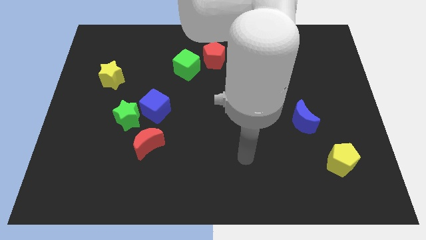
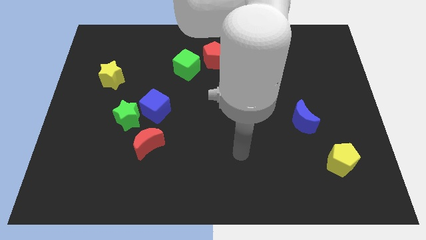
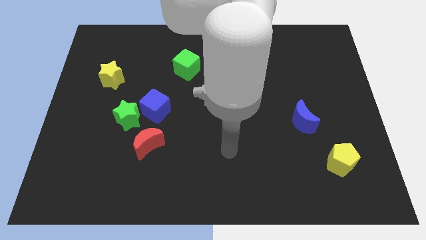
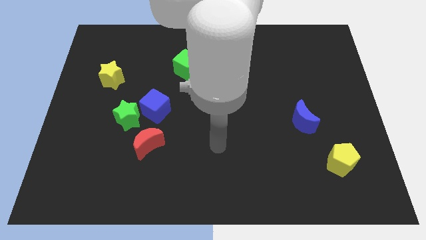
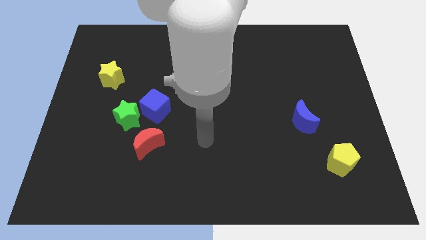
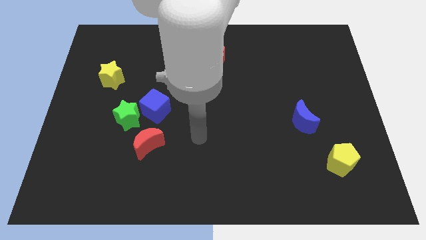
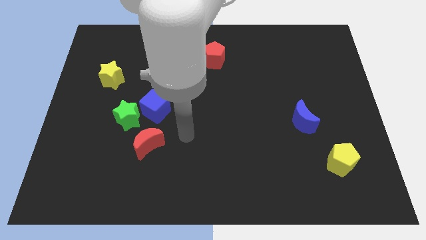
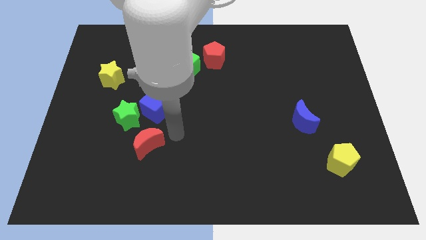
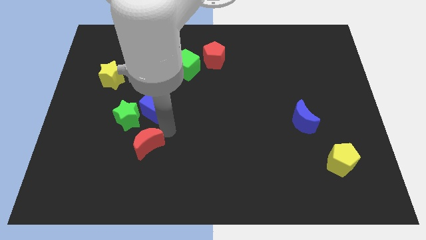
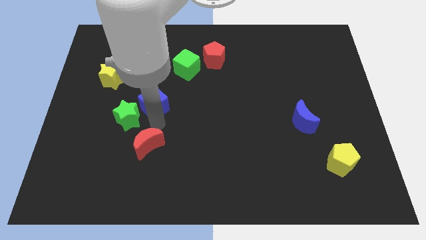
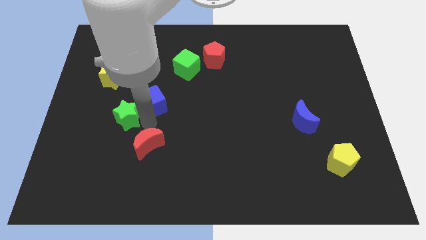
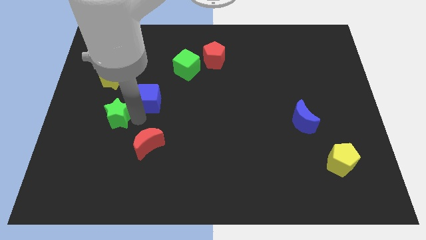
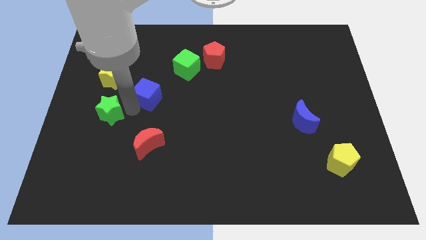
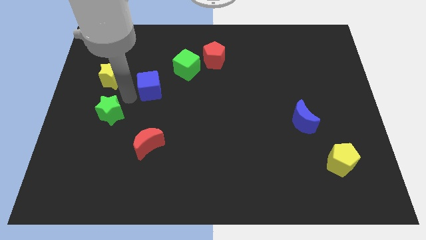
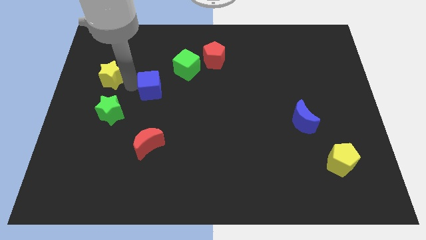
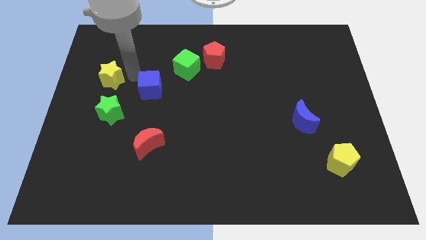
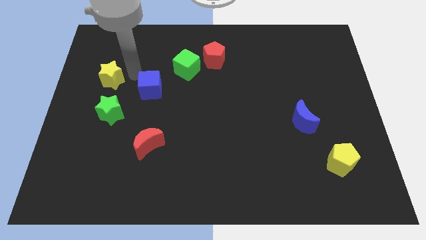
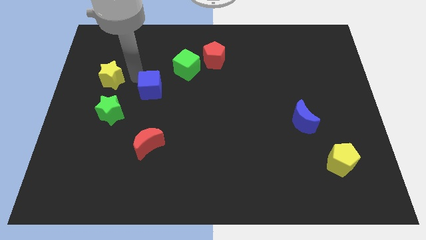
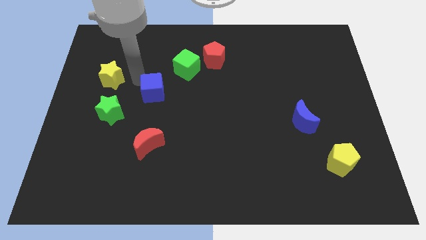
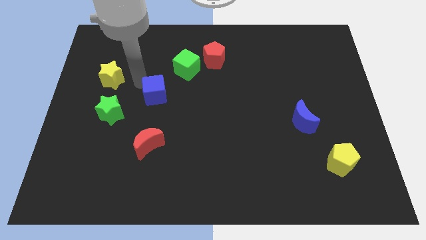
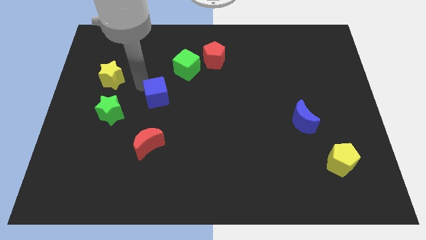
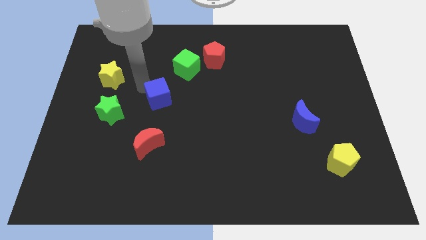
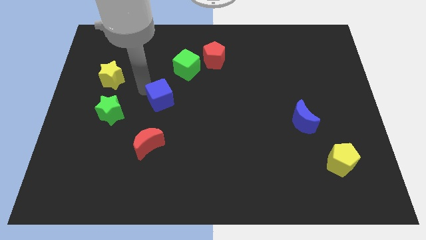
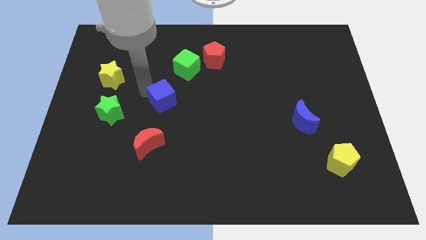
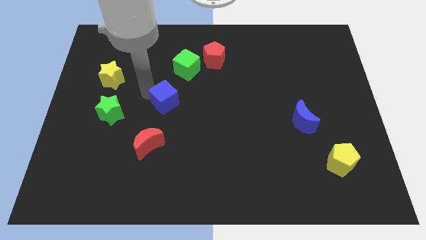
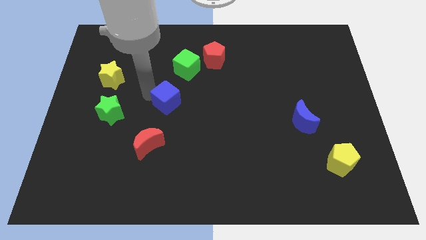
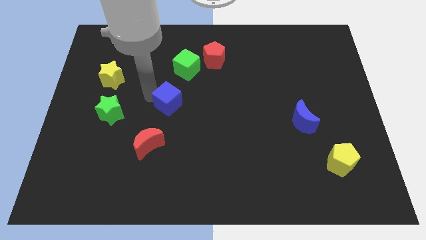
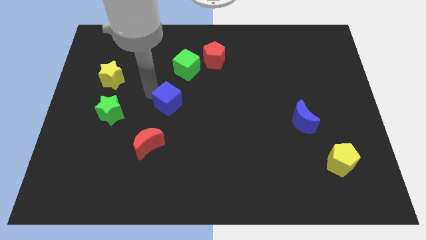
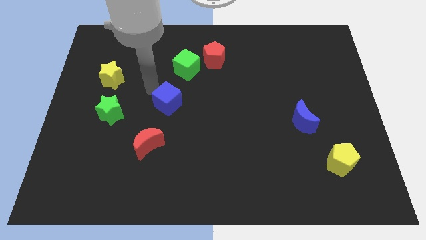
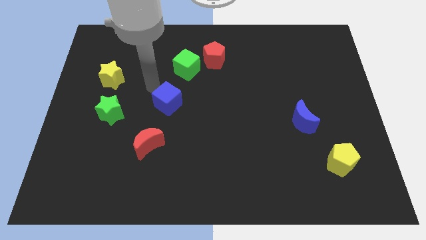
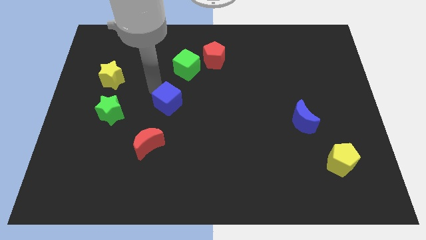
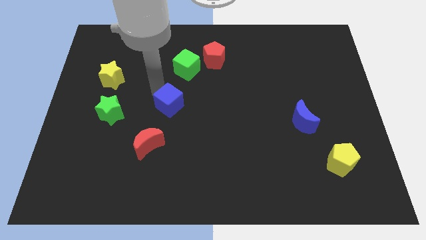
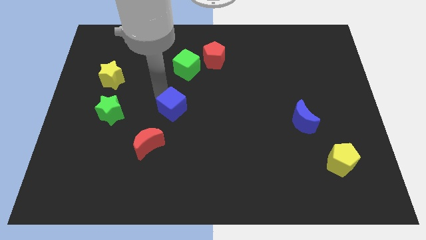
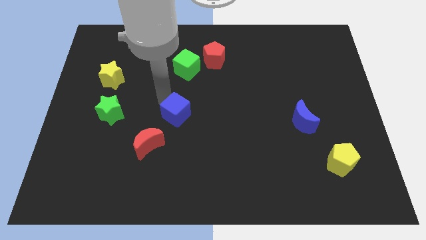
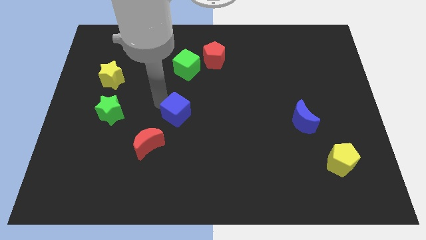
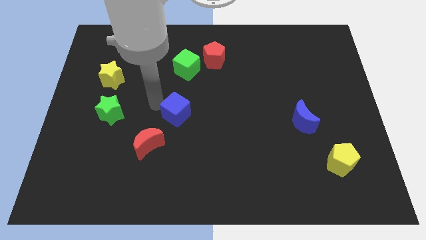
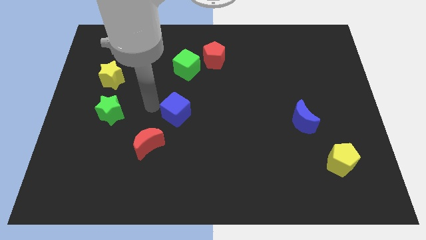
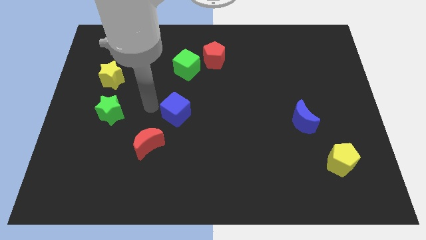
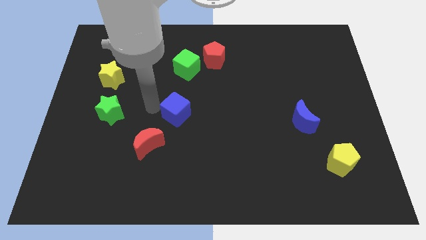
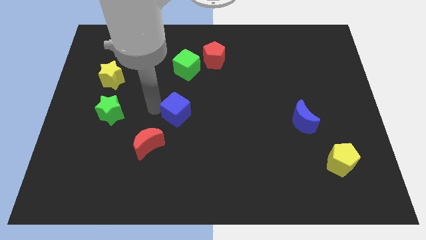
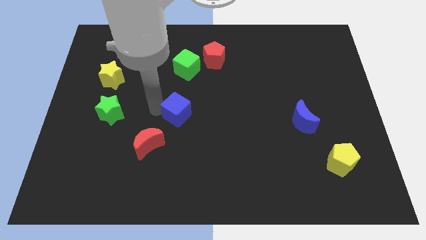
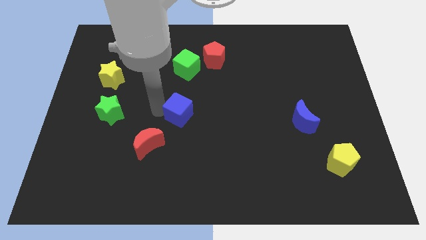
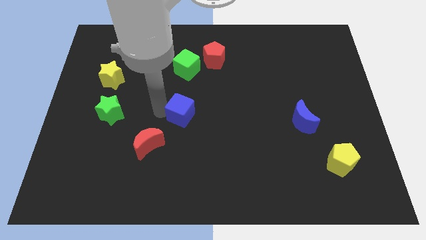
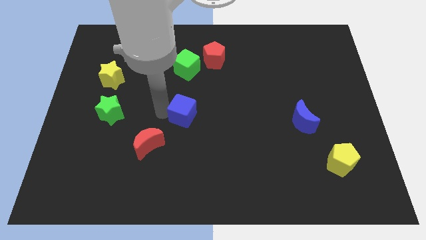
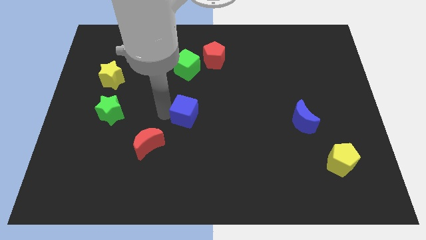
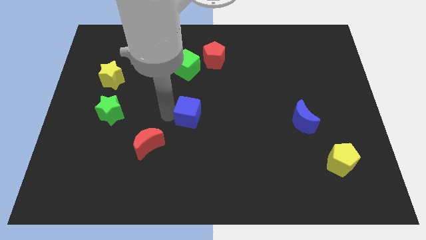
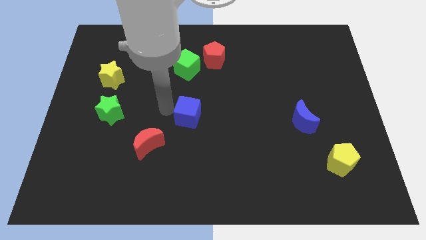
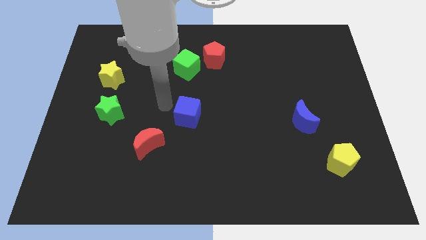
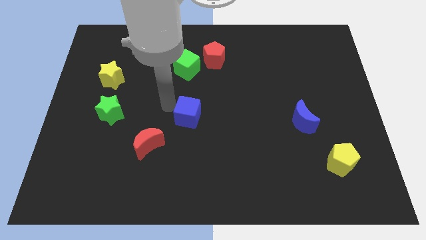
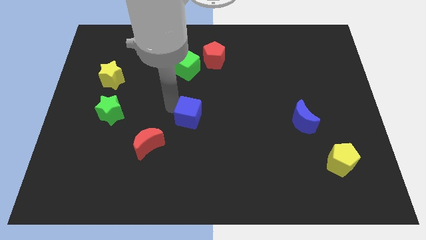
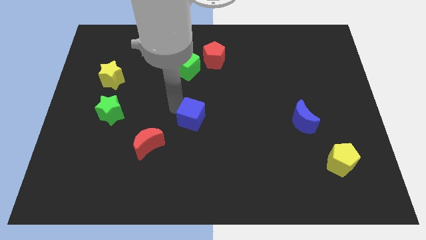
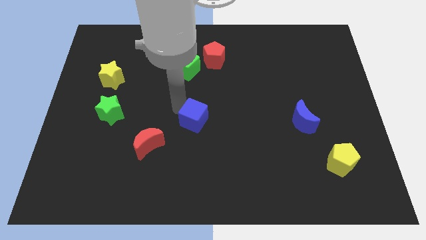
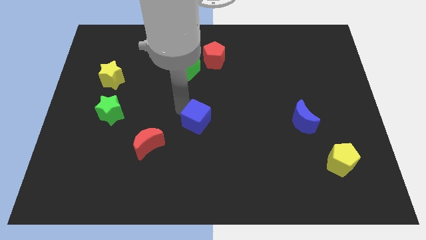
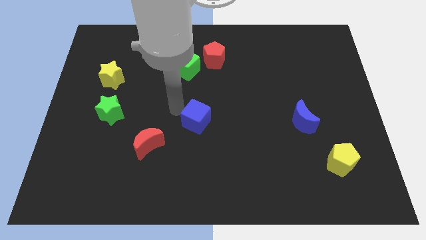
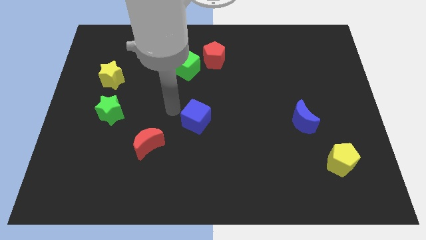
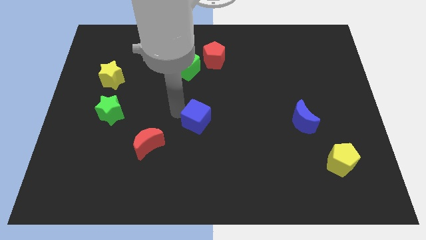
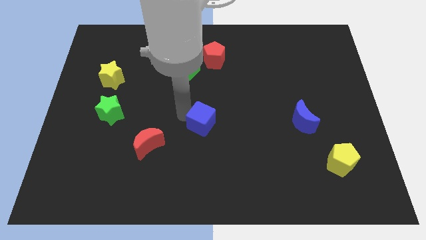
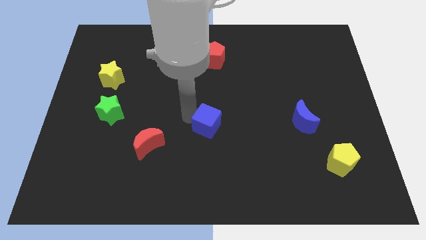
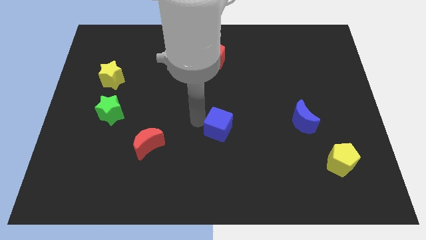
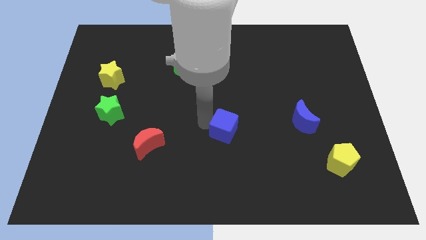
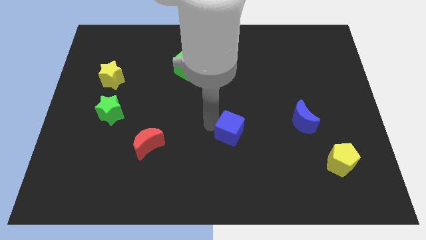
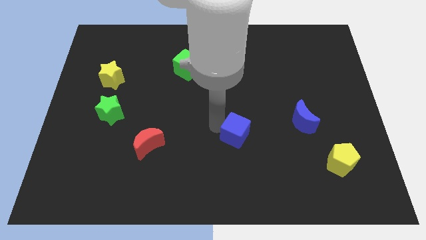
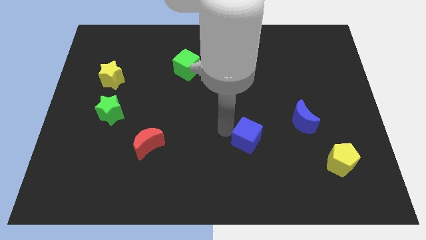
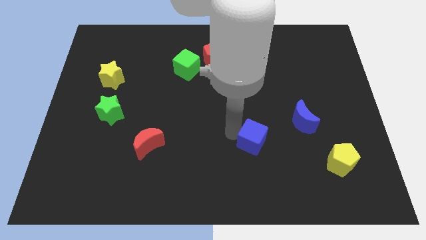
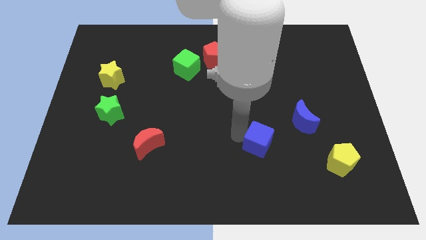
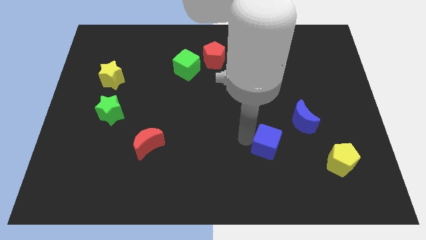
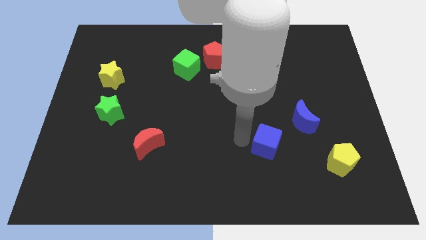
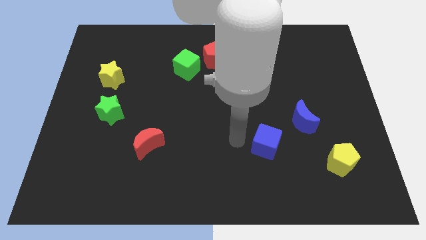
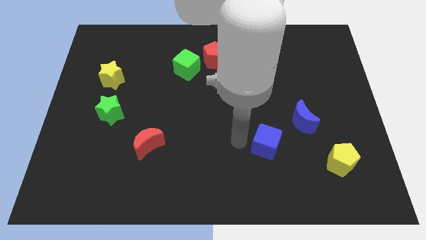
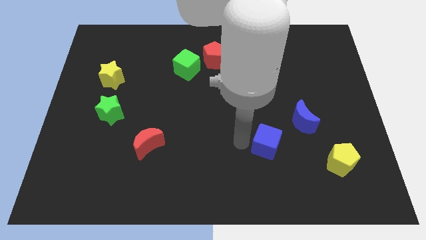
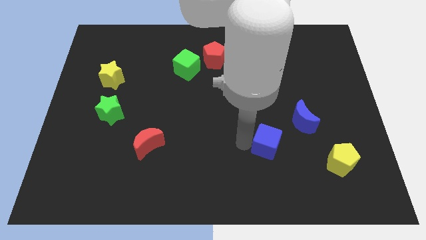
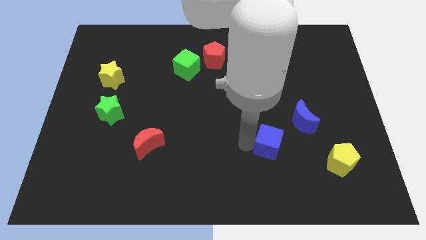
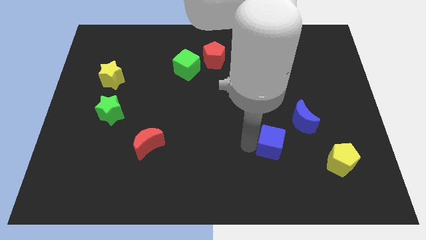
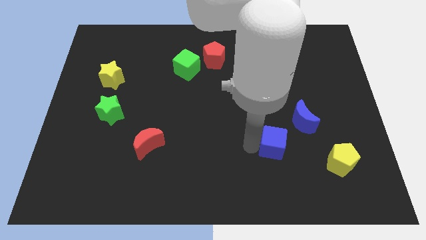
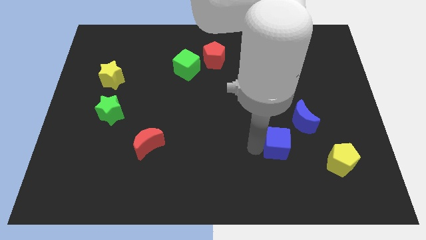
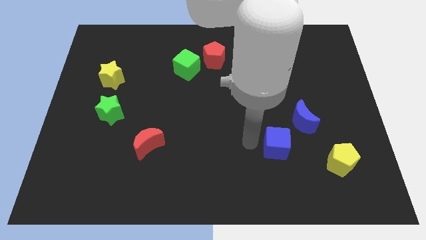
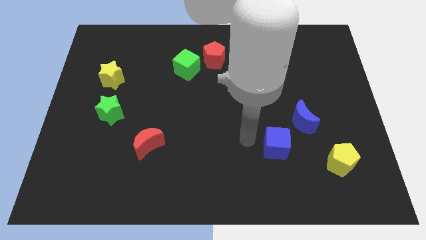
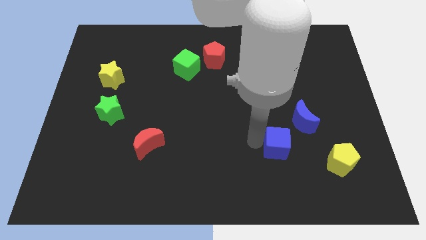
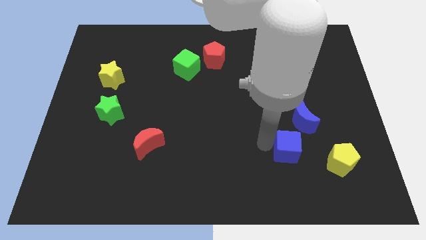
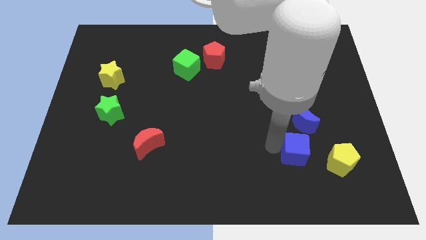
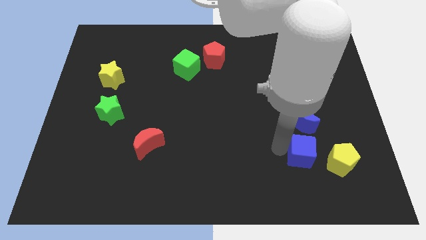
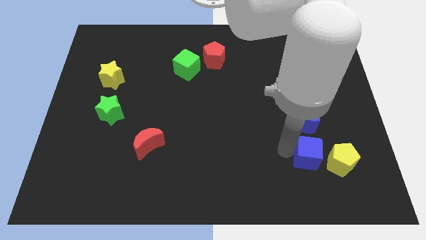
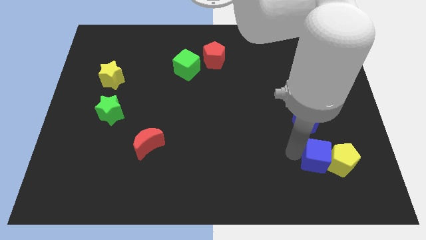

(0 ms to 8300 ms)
slide the blue cube next to the yellow pentagon
